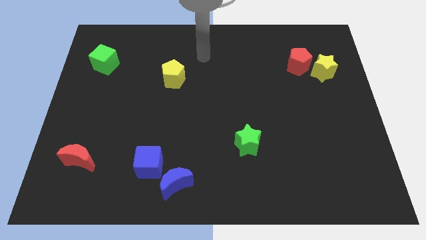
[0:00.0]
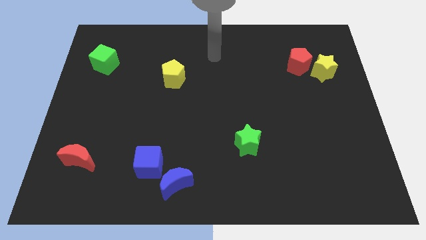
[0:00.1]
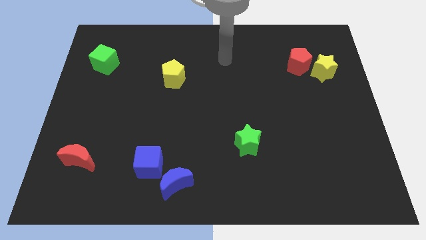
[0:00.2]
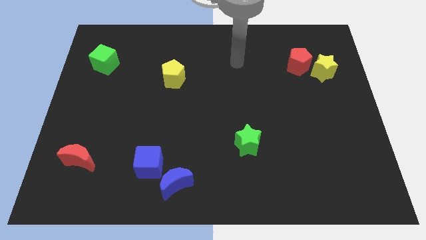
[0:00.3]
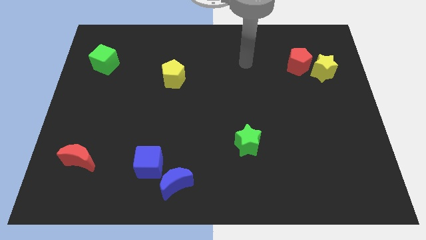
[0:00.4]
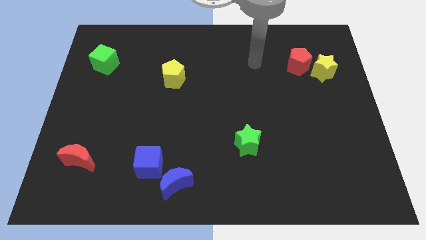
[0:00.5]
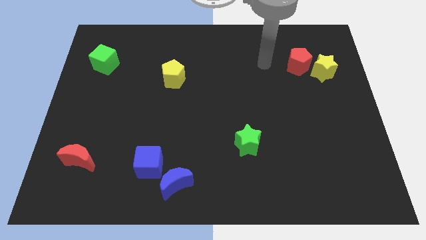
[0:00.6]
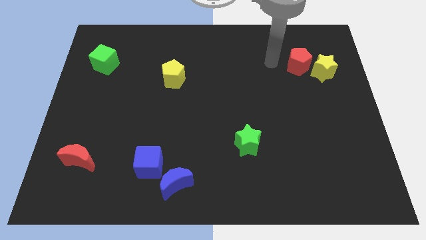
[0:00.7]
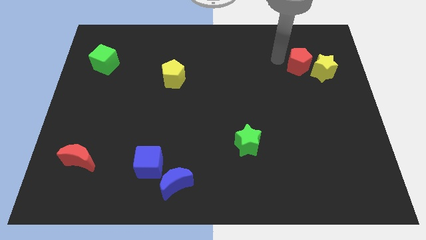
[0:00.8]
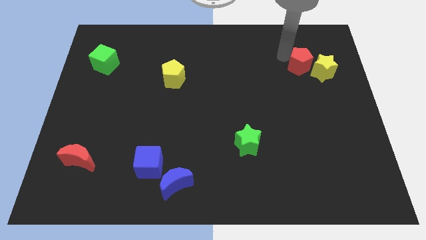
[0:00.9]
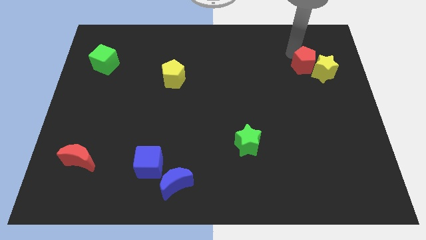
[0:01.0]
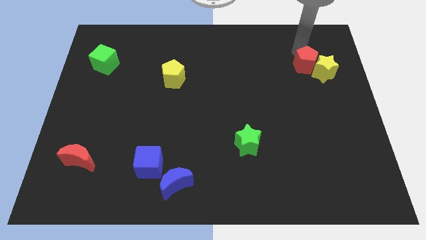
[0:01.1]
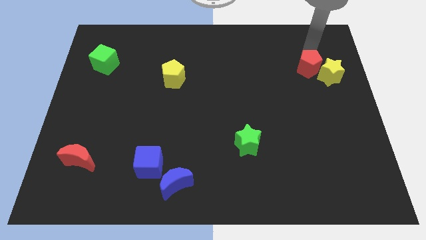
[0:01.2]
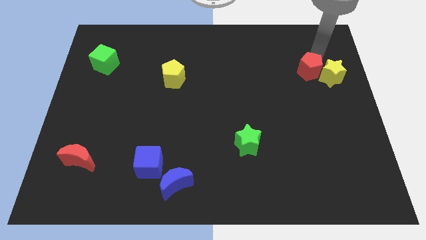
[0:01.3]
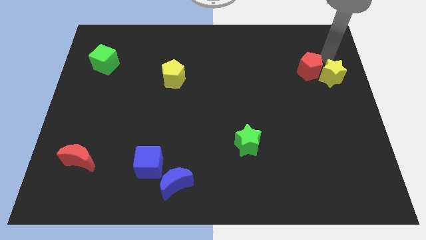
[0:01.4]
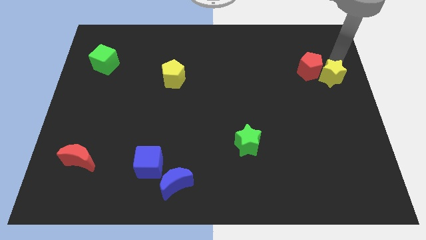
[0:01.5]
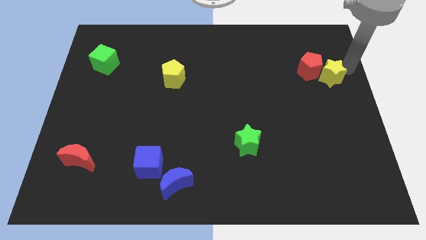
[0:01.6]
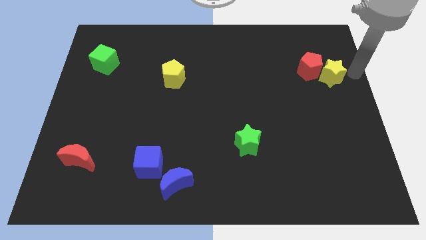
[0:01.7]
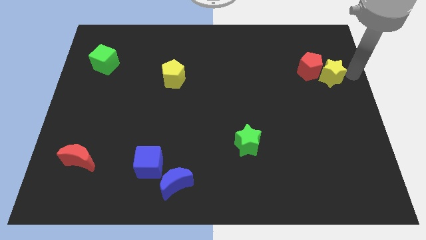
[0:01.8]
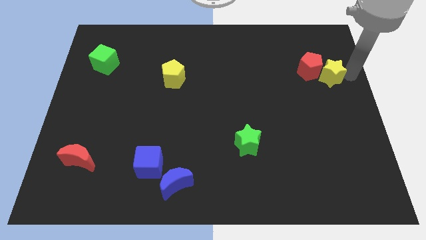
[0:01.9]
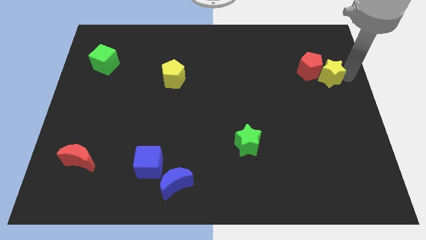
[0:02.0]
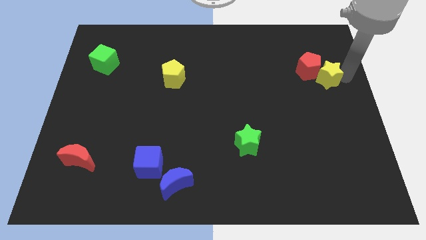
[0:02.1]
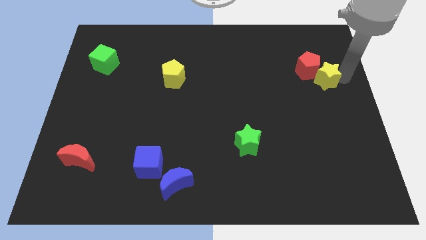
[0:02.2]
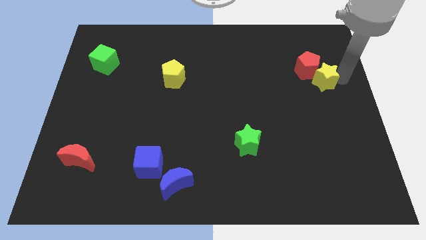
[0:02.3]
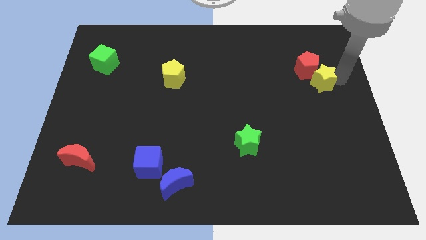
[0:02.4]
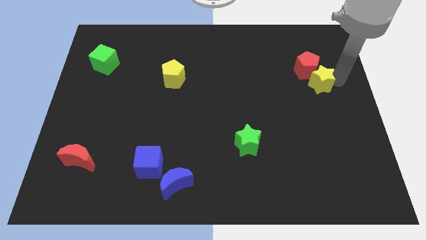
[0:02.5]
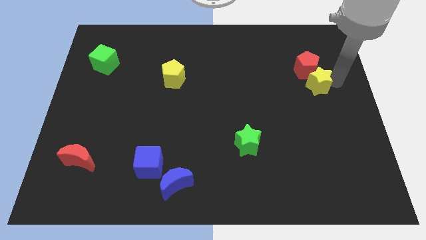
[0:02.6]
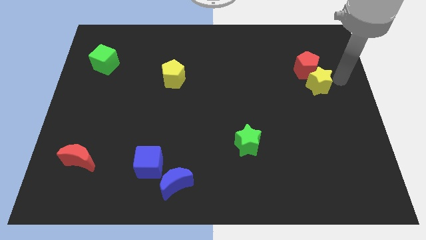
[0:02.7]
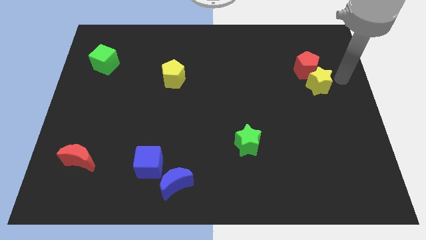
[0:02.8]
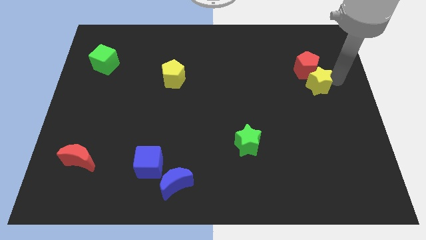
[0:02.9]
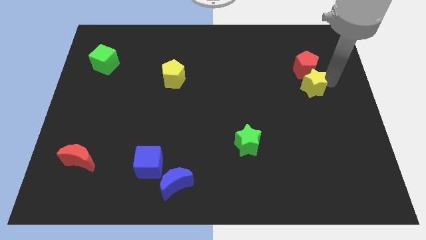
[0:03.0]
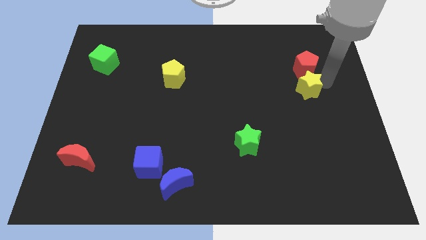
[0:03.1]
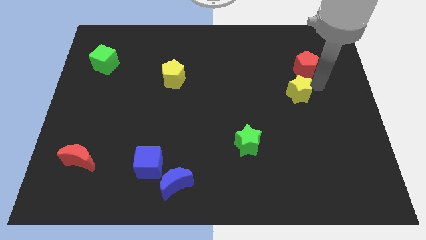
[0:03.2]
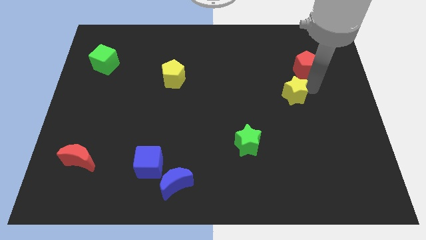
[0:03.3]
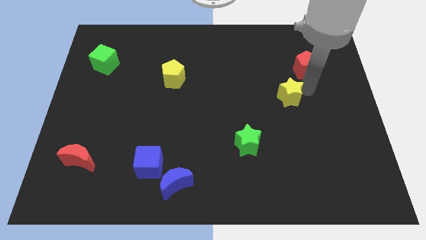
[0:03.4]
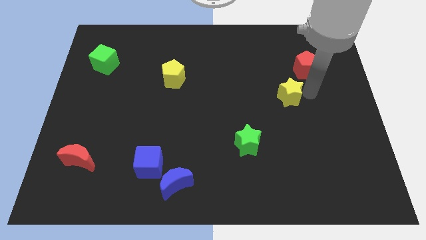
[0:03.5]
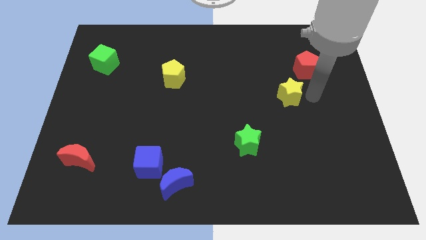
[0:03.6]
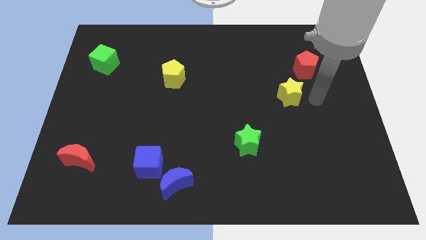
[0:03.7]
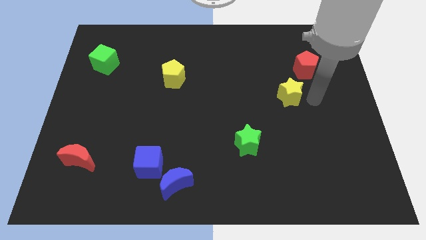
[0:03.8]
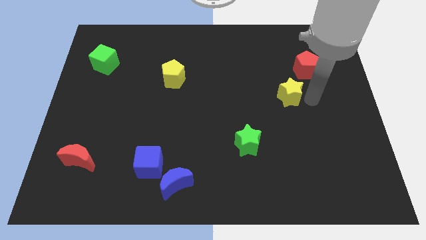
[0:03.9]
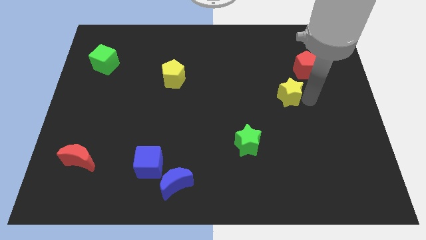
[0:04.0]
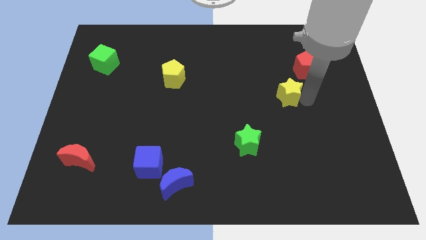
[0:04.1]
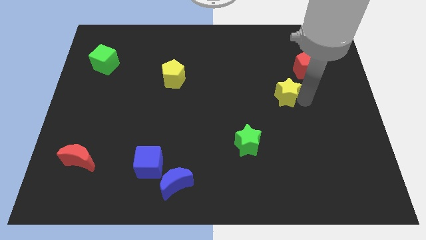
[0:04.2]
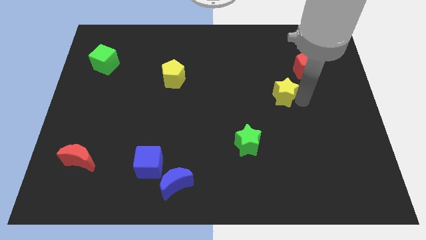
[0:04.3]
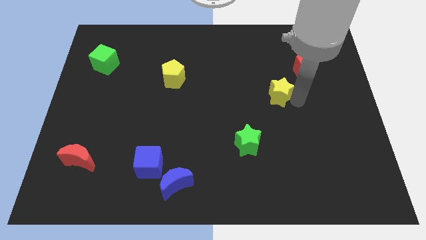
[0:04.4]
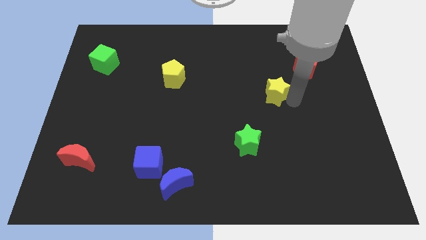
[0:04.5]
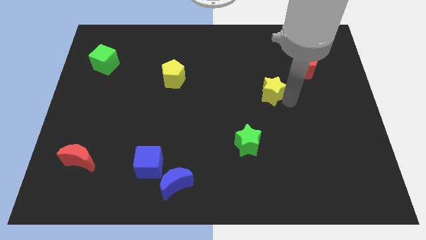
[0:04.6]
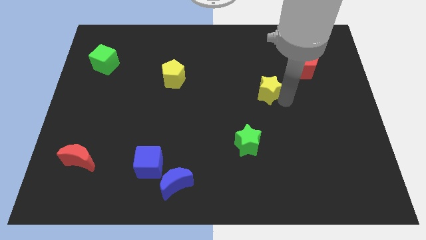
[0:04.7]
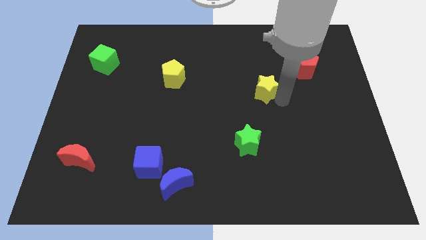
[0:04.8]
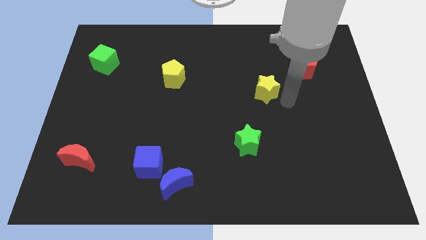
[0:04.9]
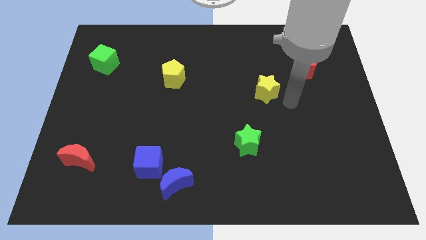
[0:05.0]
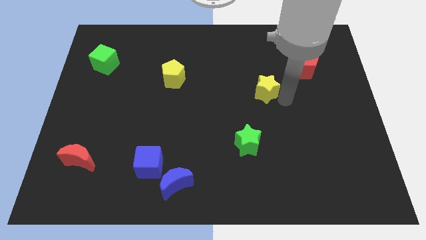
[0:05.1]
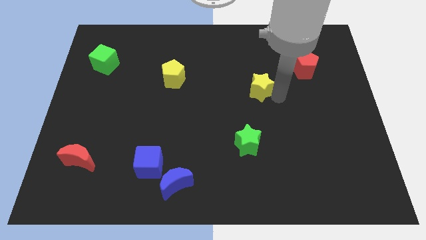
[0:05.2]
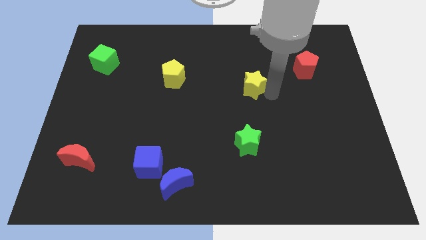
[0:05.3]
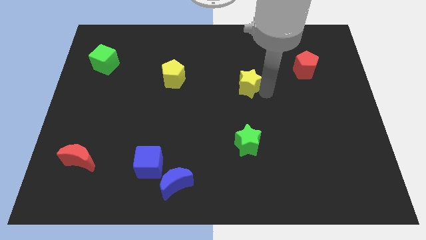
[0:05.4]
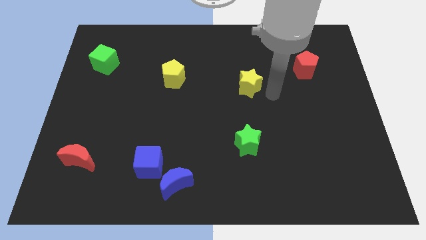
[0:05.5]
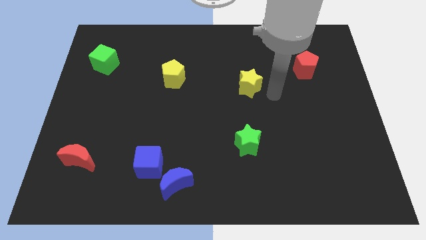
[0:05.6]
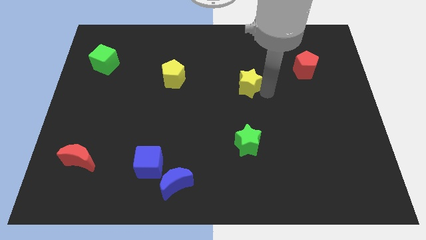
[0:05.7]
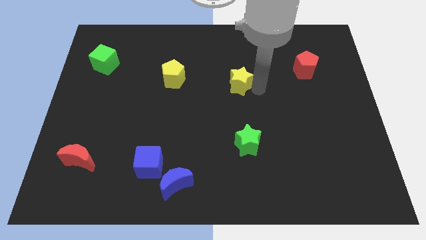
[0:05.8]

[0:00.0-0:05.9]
move the yellow star left

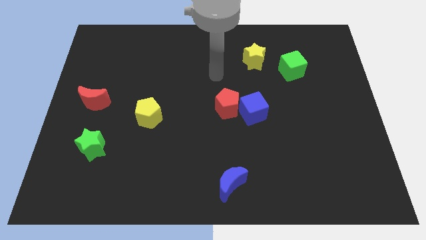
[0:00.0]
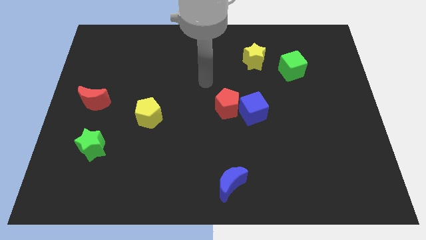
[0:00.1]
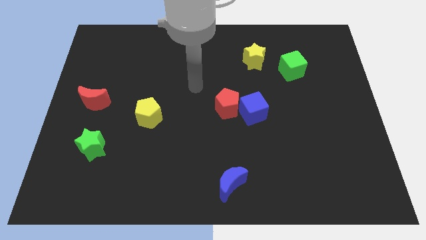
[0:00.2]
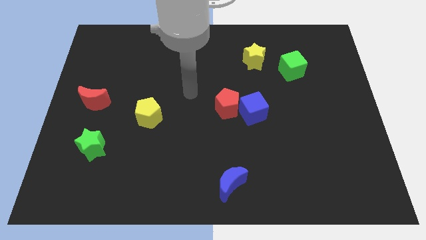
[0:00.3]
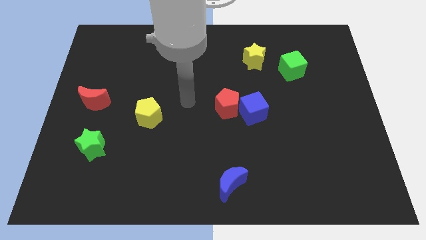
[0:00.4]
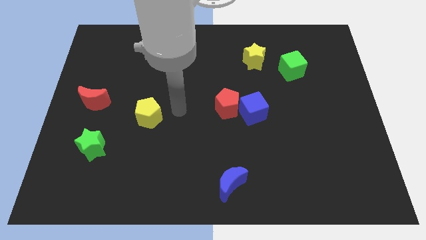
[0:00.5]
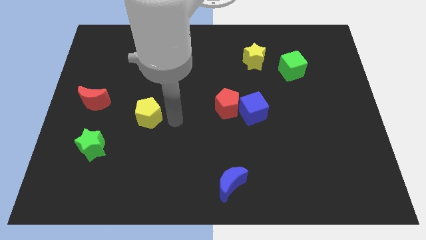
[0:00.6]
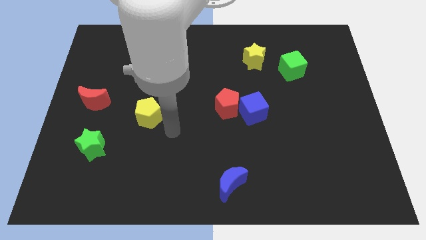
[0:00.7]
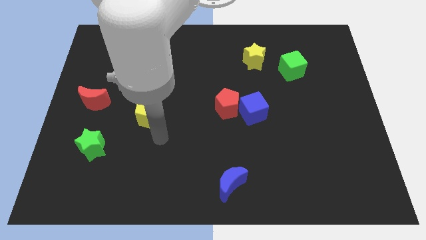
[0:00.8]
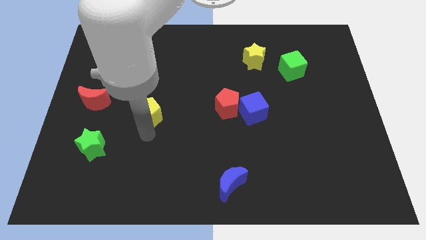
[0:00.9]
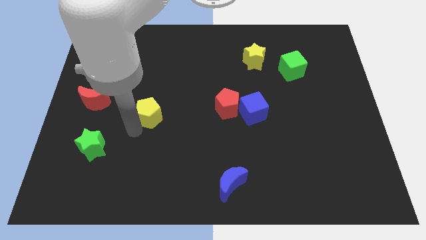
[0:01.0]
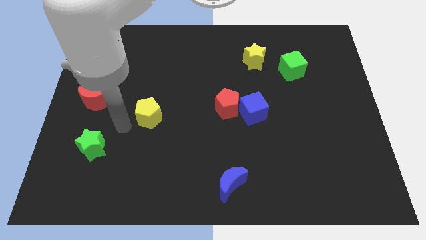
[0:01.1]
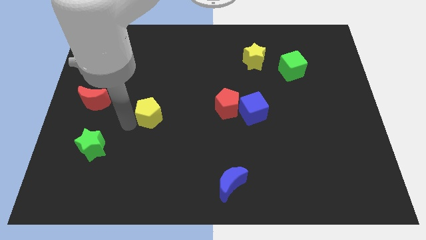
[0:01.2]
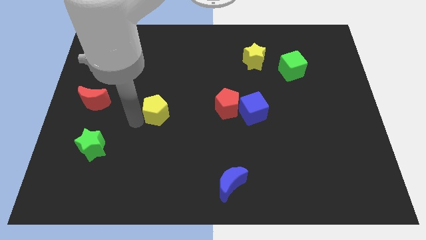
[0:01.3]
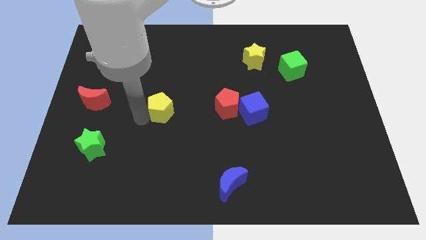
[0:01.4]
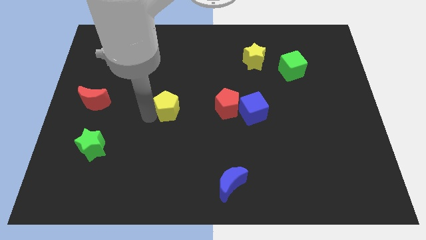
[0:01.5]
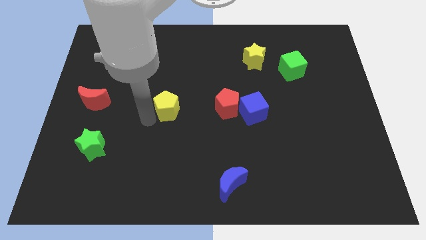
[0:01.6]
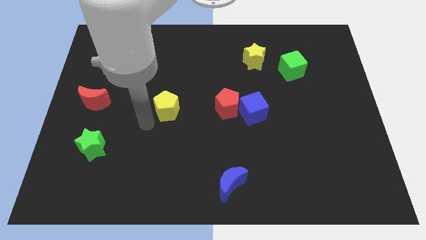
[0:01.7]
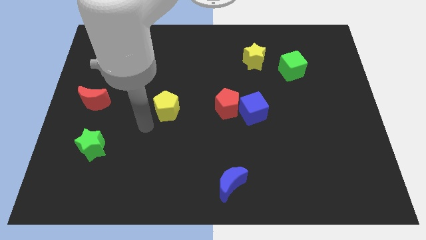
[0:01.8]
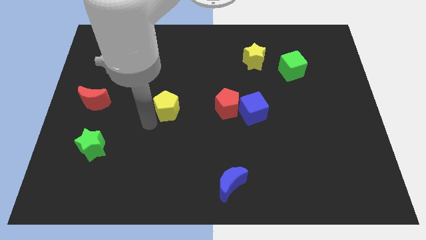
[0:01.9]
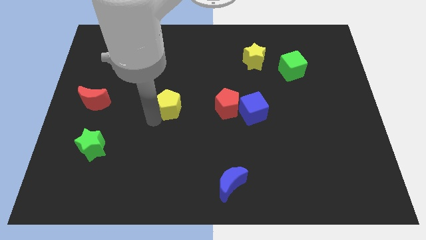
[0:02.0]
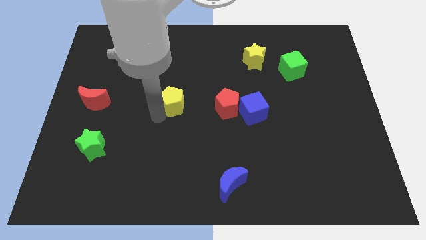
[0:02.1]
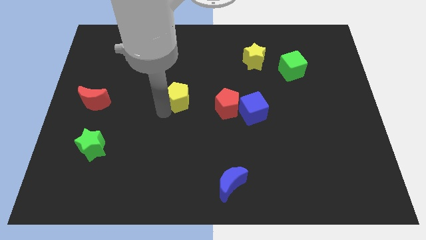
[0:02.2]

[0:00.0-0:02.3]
slightly slide the yellow pentagon up and then to the right
